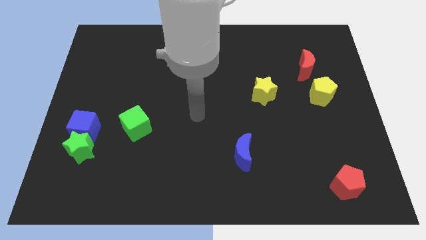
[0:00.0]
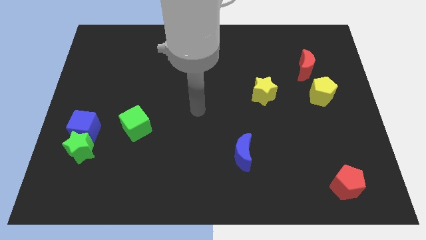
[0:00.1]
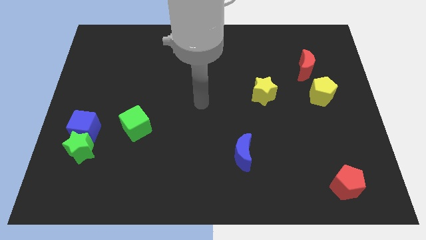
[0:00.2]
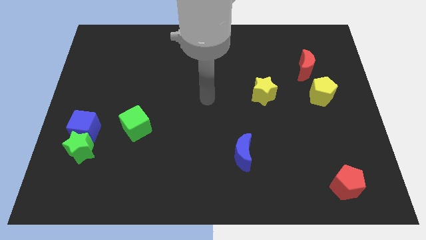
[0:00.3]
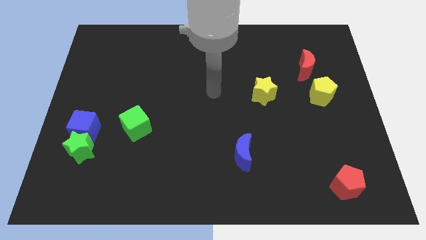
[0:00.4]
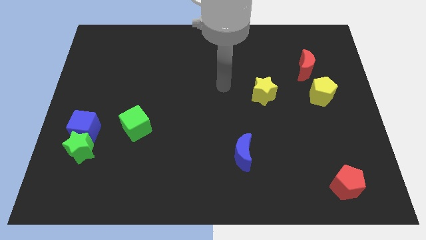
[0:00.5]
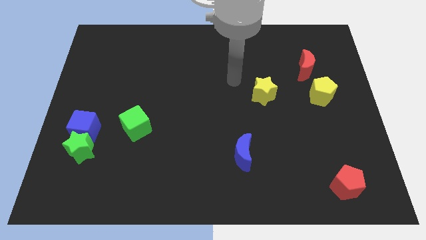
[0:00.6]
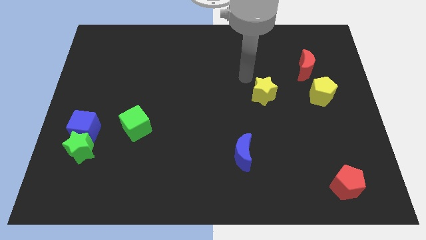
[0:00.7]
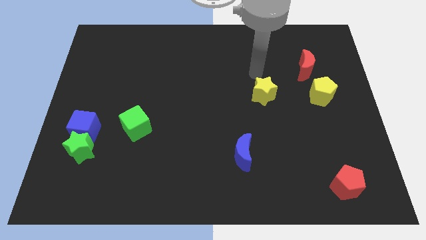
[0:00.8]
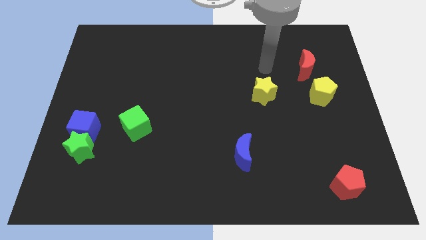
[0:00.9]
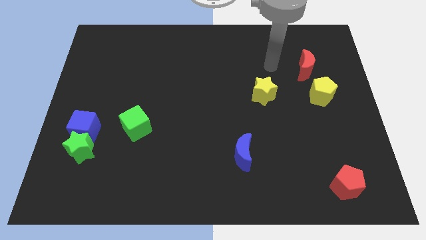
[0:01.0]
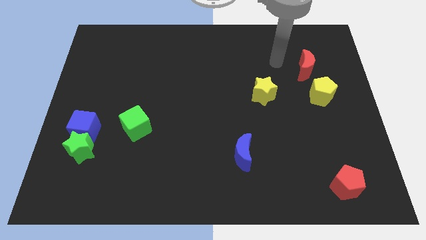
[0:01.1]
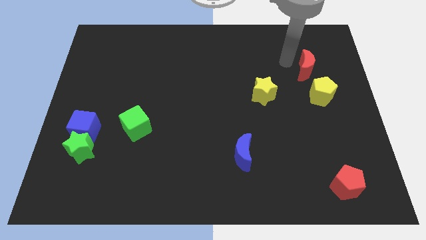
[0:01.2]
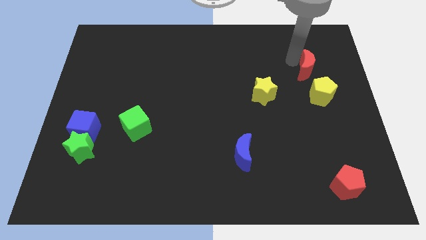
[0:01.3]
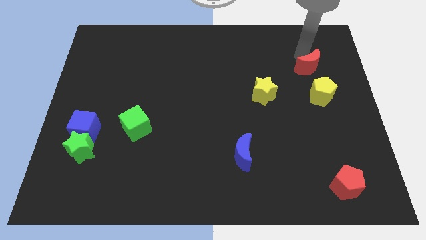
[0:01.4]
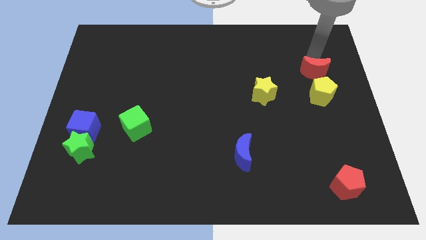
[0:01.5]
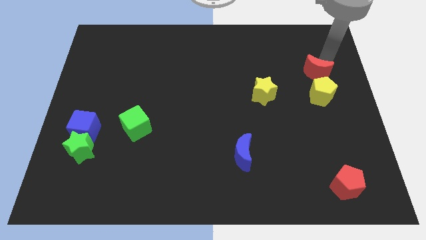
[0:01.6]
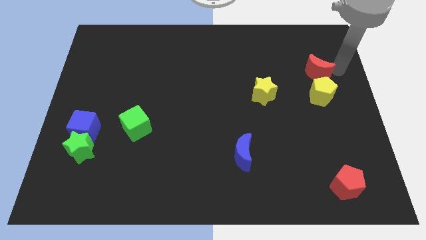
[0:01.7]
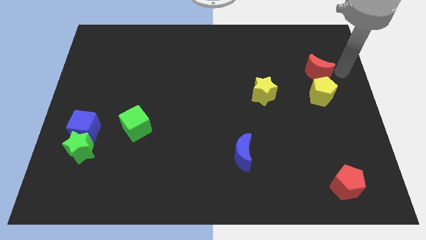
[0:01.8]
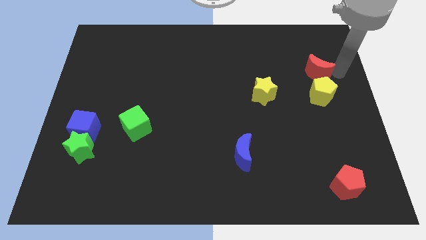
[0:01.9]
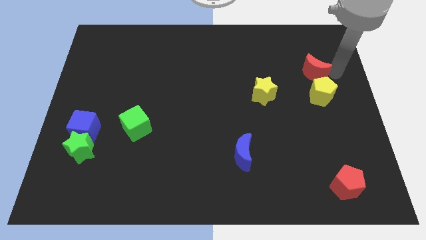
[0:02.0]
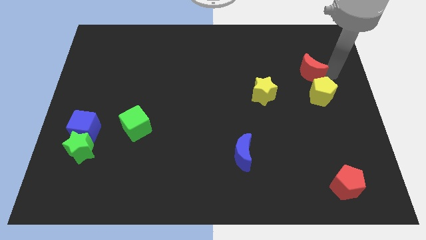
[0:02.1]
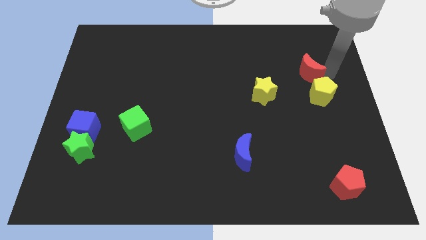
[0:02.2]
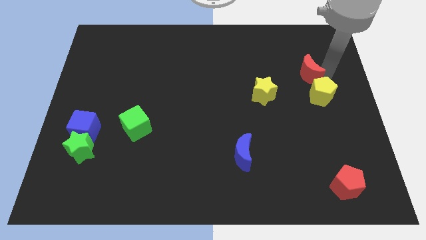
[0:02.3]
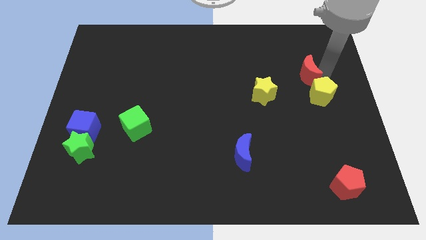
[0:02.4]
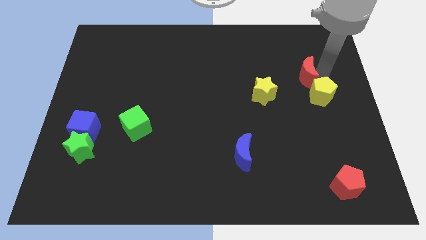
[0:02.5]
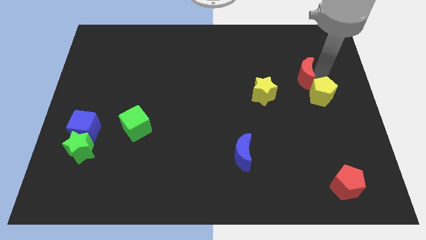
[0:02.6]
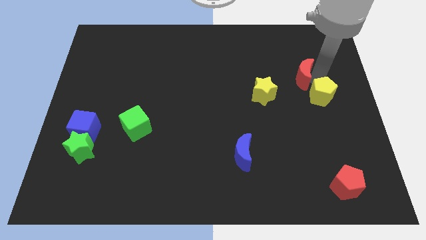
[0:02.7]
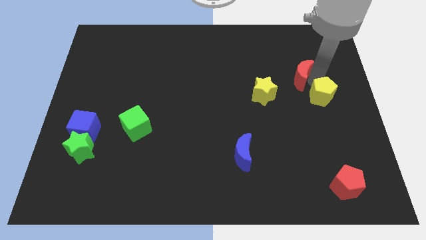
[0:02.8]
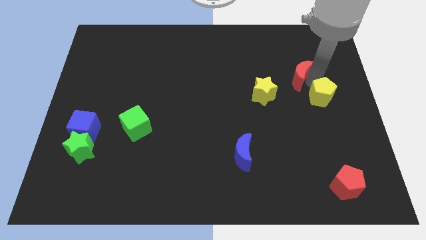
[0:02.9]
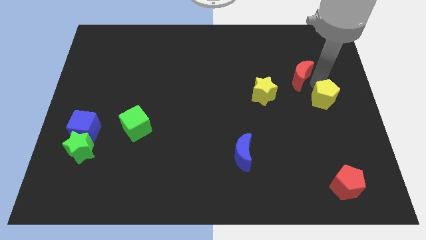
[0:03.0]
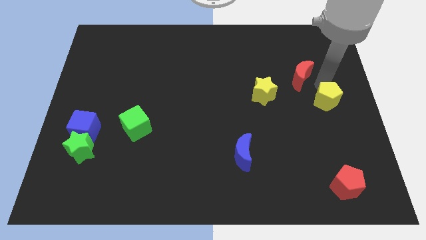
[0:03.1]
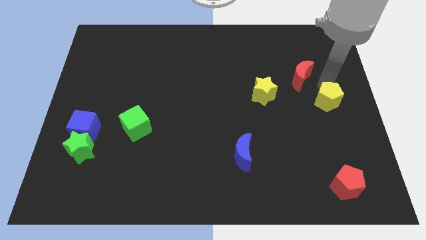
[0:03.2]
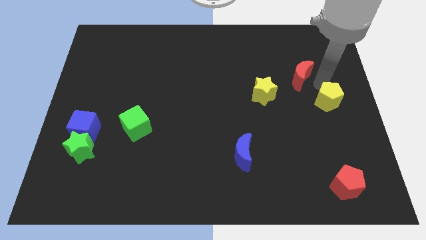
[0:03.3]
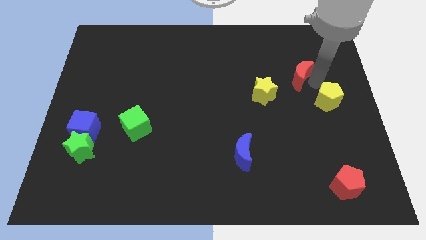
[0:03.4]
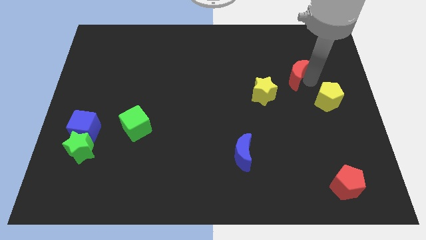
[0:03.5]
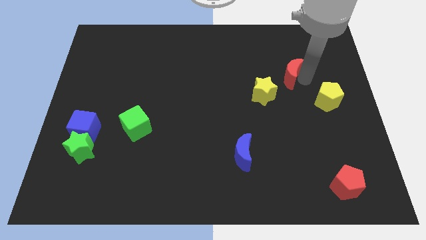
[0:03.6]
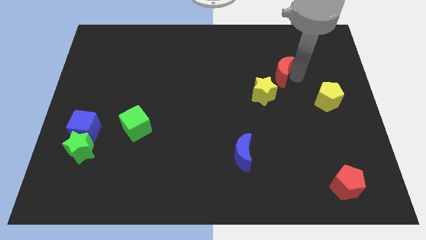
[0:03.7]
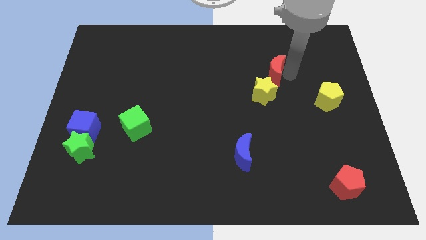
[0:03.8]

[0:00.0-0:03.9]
push the red moon slightly left

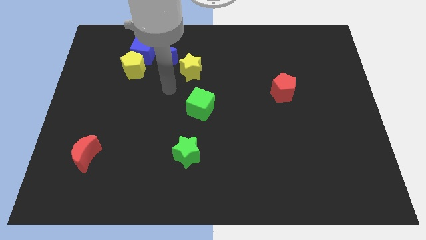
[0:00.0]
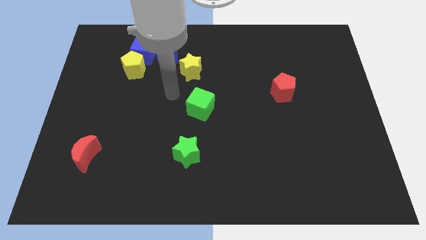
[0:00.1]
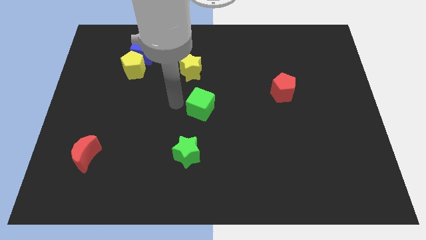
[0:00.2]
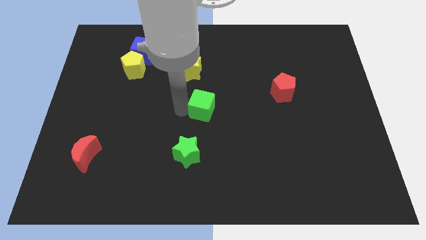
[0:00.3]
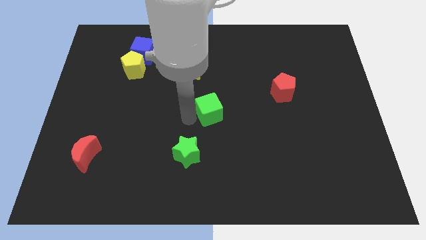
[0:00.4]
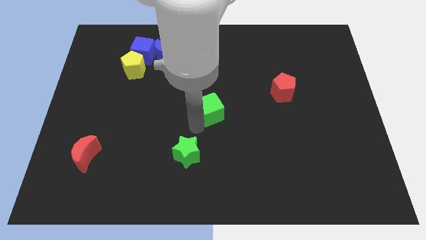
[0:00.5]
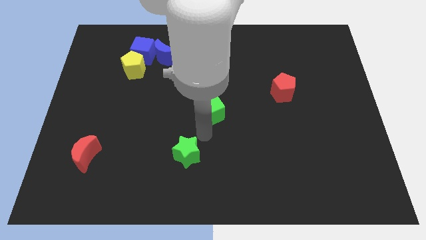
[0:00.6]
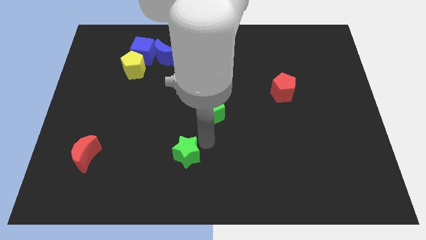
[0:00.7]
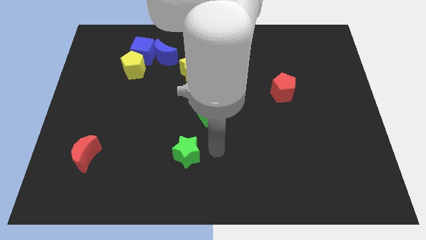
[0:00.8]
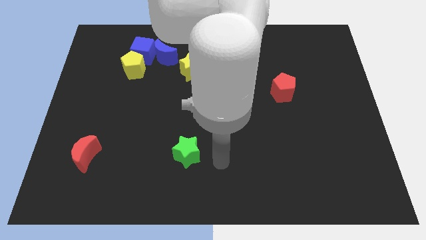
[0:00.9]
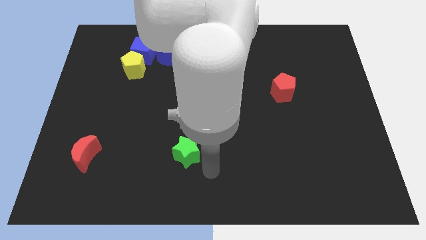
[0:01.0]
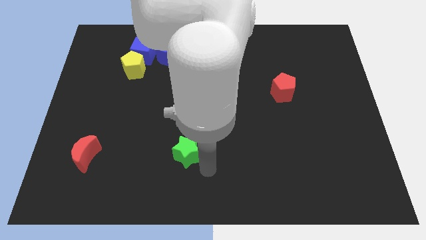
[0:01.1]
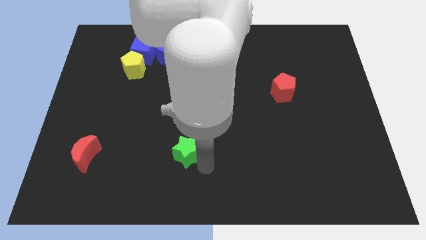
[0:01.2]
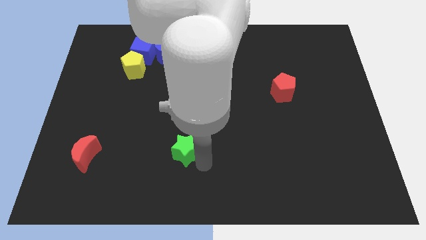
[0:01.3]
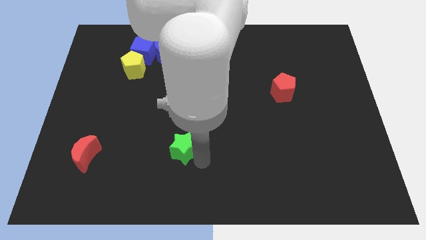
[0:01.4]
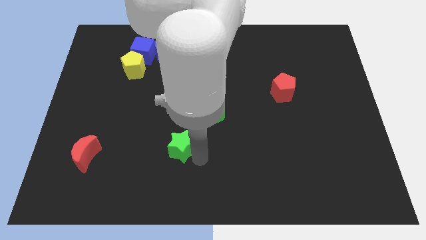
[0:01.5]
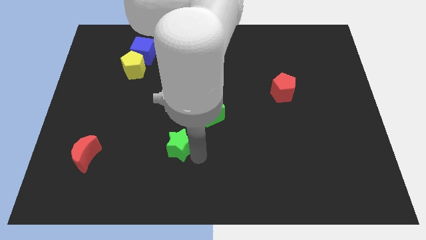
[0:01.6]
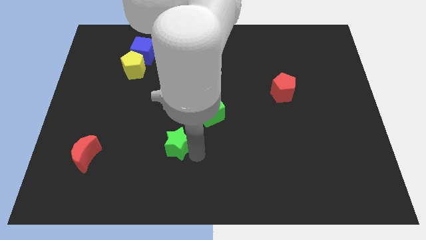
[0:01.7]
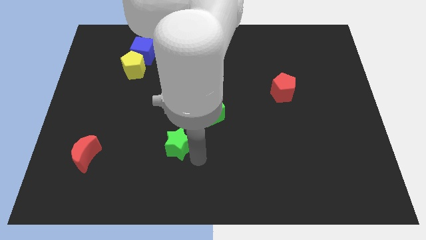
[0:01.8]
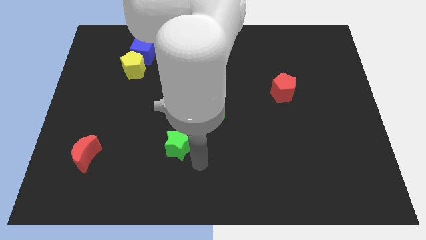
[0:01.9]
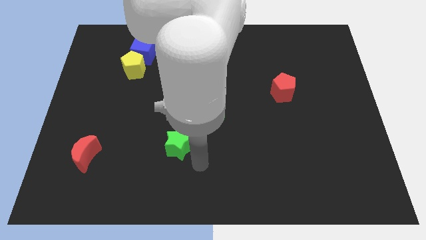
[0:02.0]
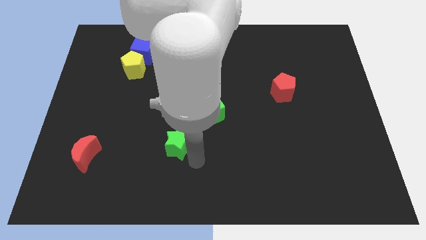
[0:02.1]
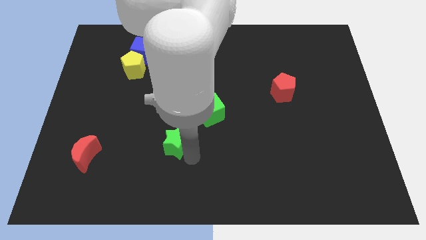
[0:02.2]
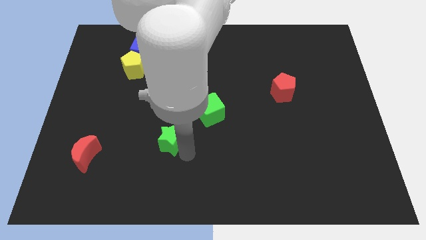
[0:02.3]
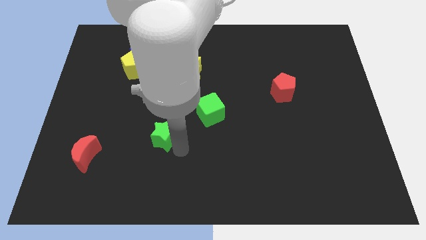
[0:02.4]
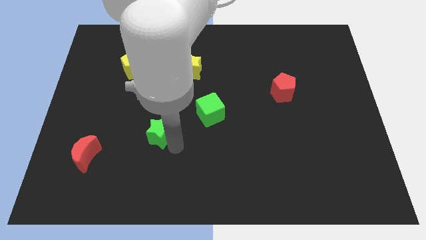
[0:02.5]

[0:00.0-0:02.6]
slightly push the green star up and to the left diagonally
